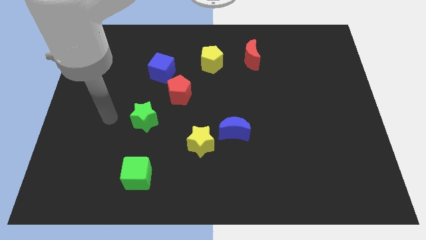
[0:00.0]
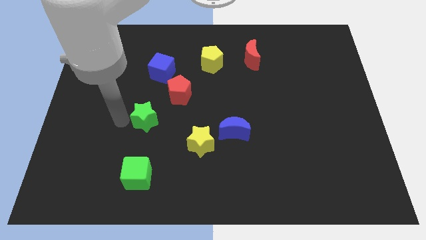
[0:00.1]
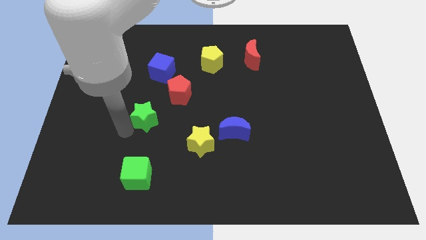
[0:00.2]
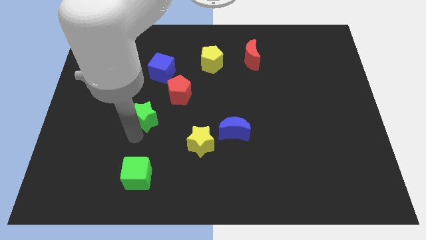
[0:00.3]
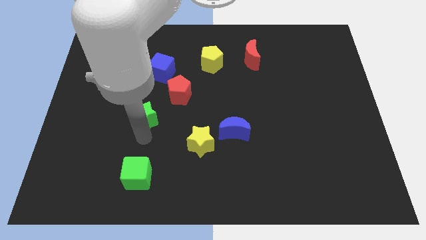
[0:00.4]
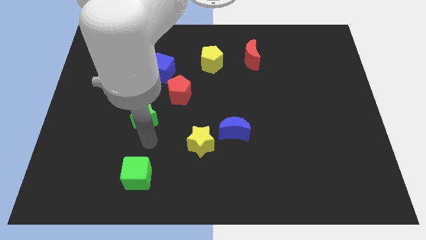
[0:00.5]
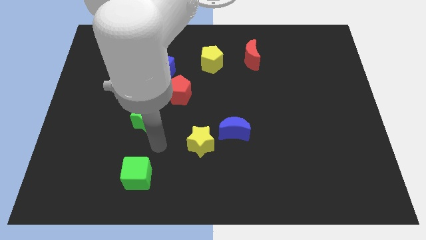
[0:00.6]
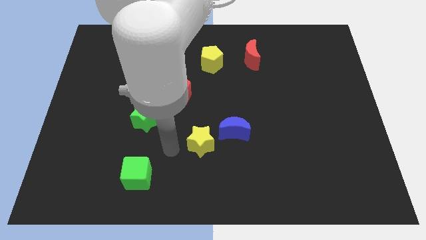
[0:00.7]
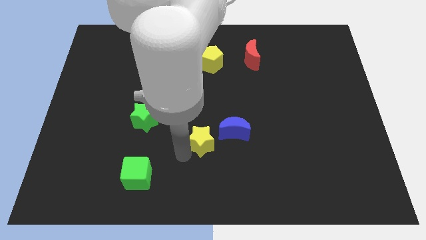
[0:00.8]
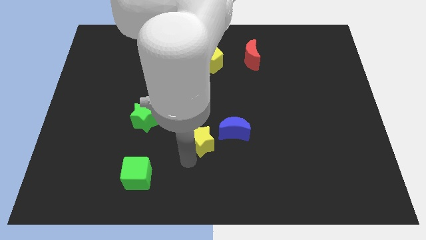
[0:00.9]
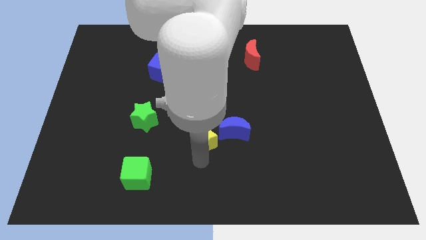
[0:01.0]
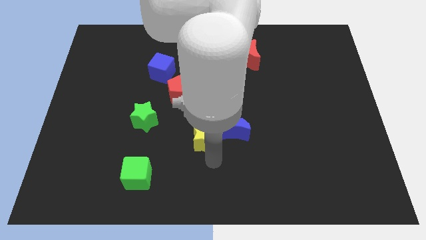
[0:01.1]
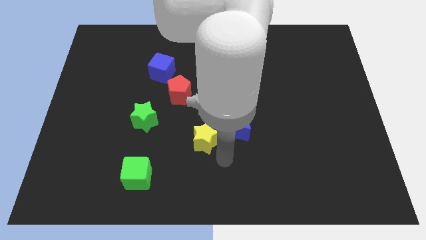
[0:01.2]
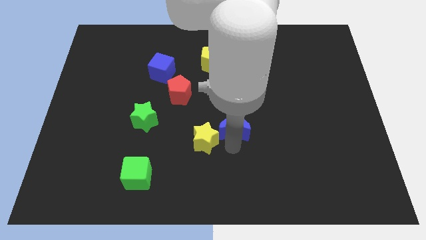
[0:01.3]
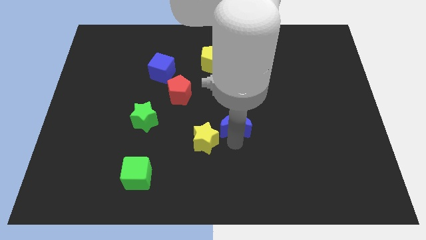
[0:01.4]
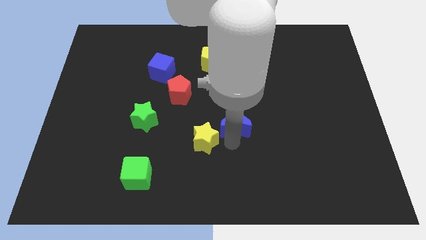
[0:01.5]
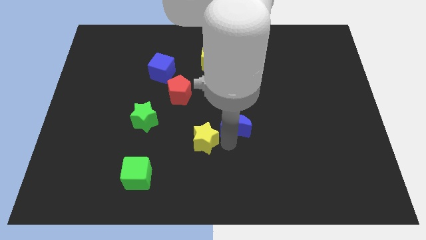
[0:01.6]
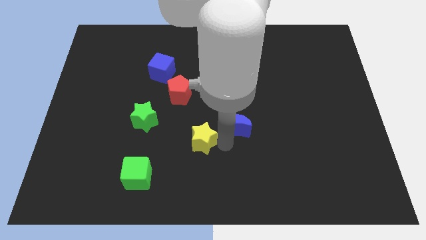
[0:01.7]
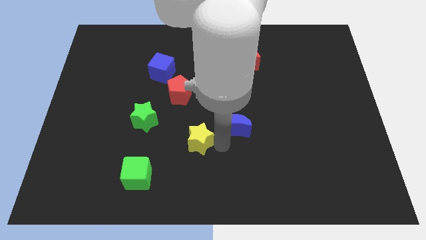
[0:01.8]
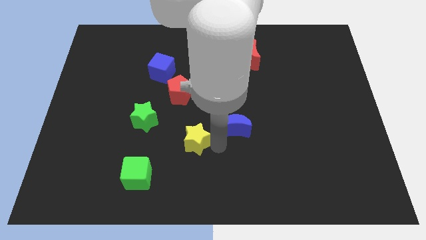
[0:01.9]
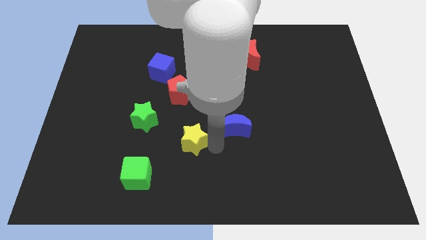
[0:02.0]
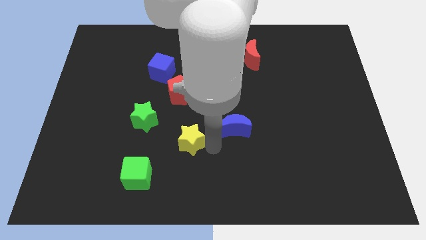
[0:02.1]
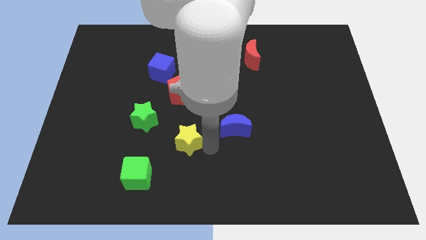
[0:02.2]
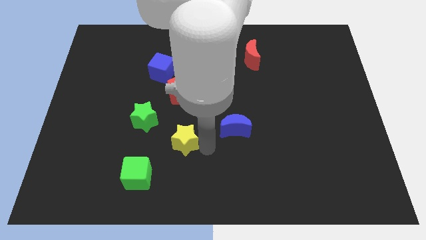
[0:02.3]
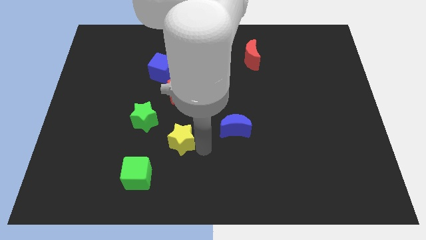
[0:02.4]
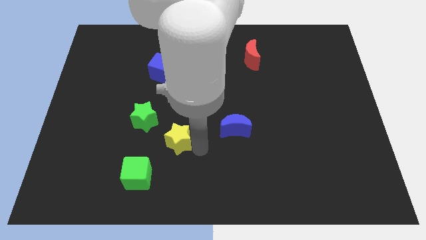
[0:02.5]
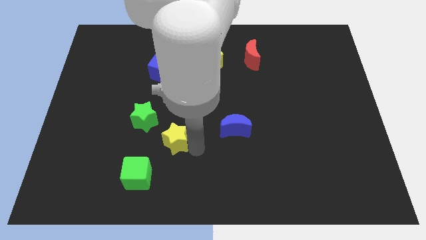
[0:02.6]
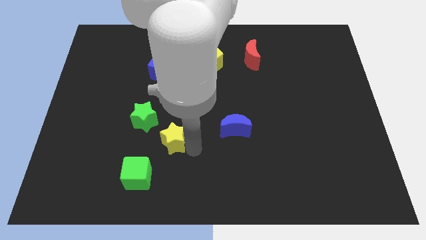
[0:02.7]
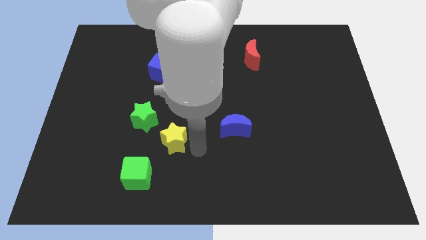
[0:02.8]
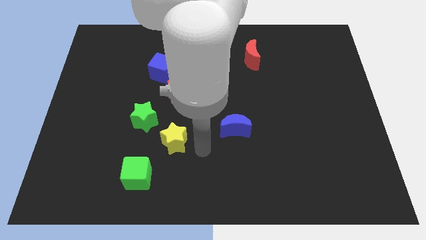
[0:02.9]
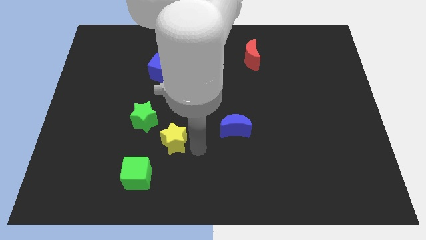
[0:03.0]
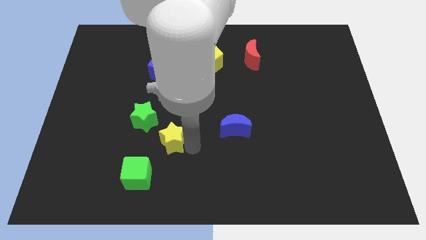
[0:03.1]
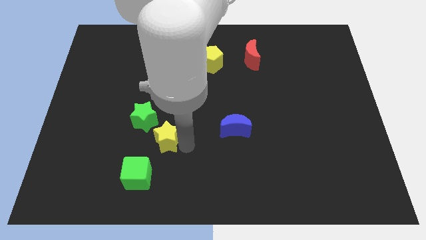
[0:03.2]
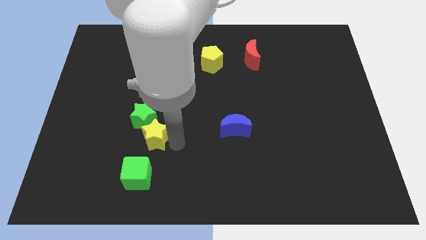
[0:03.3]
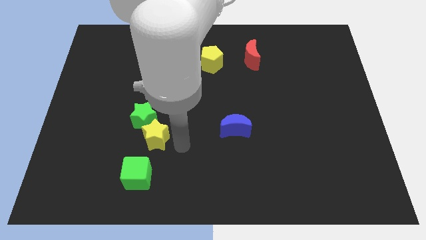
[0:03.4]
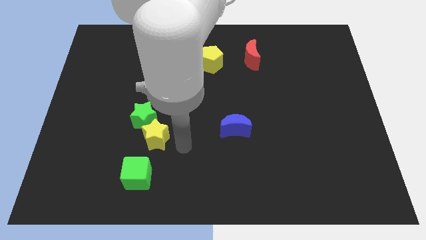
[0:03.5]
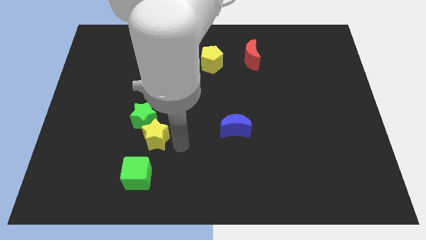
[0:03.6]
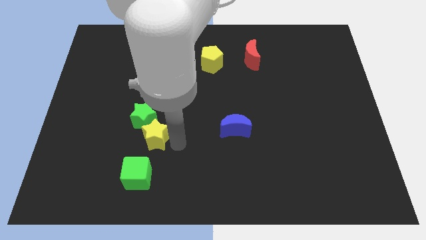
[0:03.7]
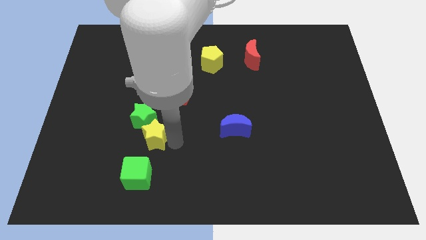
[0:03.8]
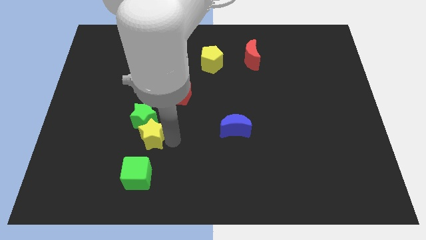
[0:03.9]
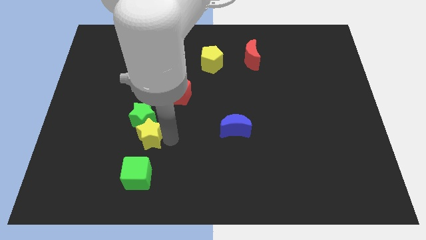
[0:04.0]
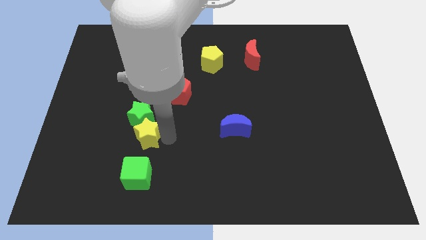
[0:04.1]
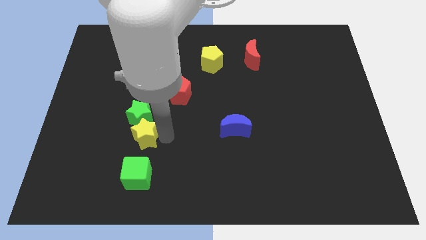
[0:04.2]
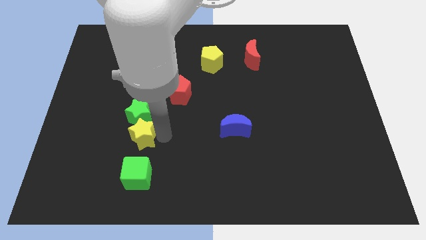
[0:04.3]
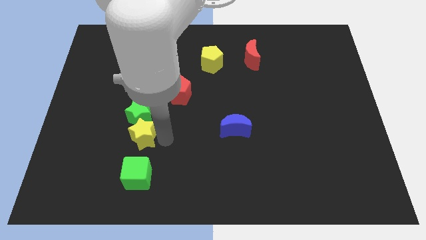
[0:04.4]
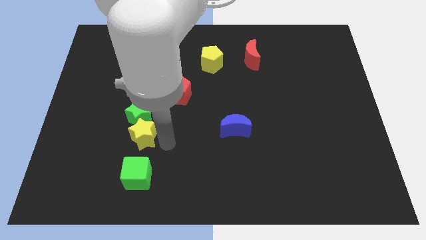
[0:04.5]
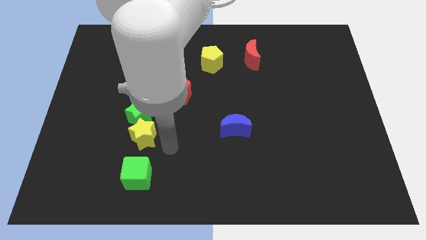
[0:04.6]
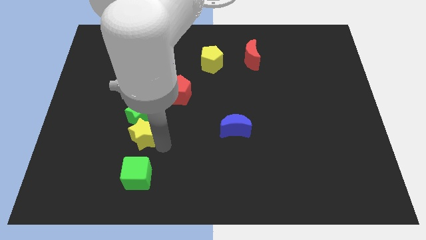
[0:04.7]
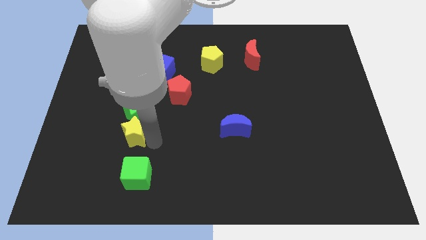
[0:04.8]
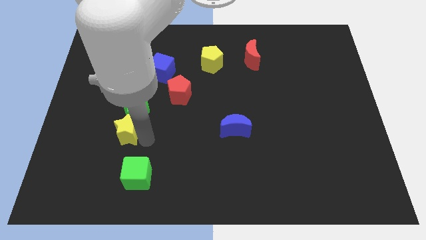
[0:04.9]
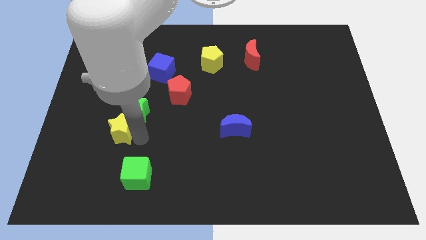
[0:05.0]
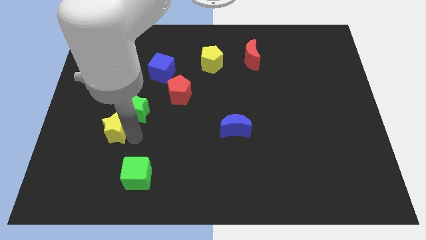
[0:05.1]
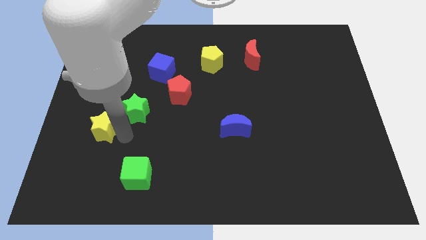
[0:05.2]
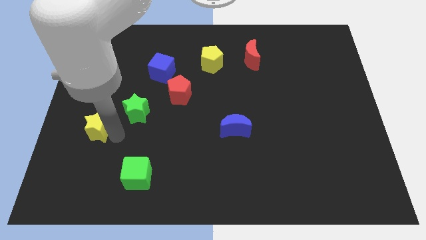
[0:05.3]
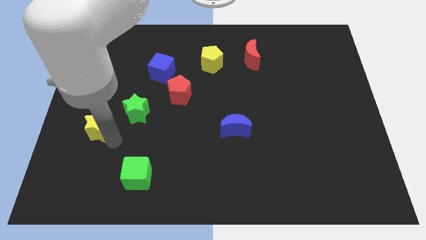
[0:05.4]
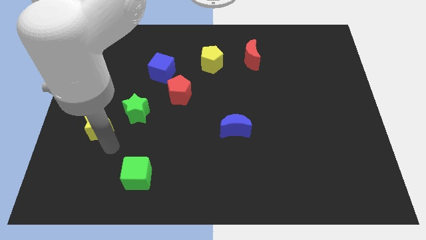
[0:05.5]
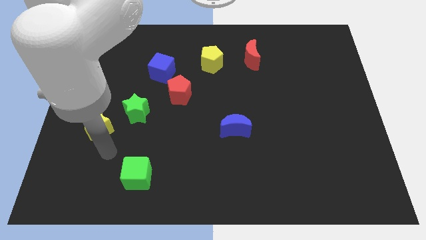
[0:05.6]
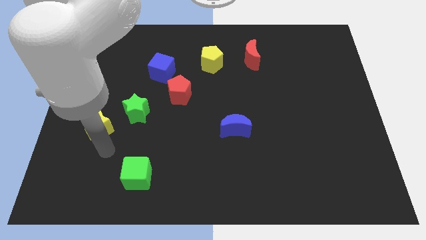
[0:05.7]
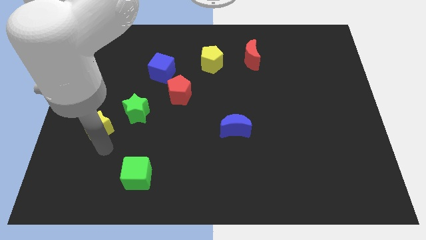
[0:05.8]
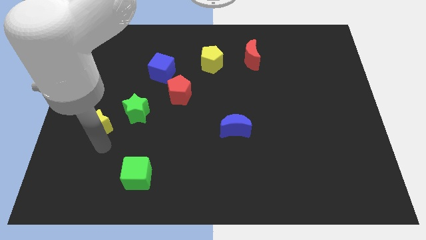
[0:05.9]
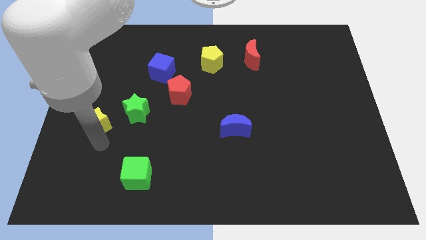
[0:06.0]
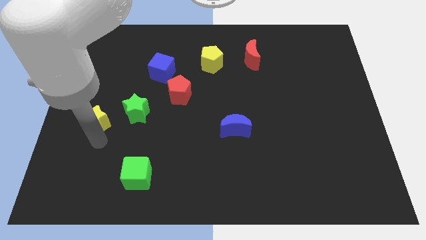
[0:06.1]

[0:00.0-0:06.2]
move the yellow star to the left side of the board
